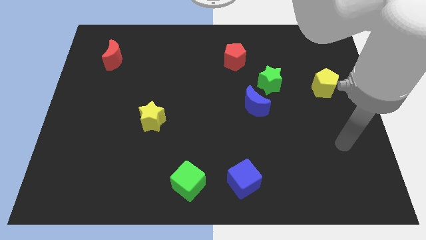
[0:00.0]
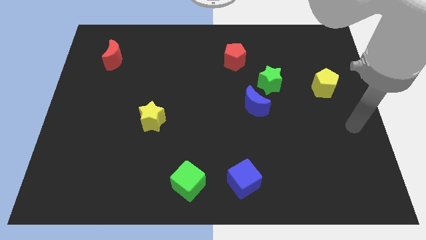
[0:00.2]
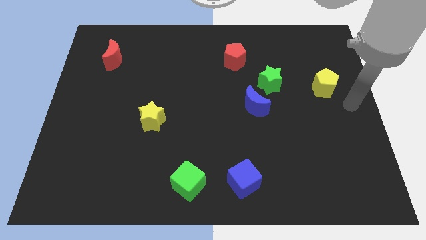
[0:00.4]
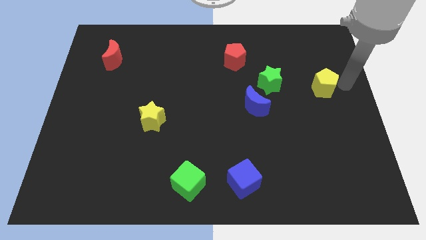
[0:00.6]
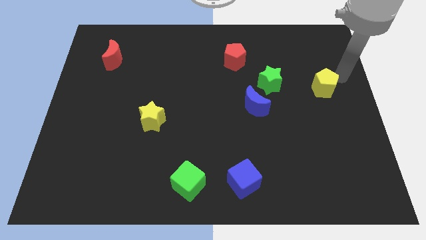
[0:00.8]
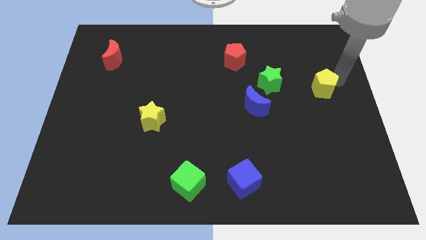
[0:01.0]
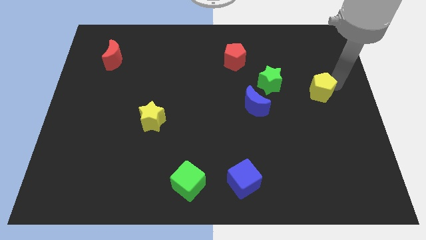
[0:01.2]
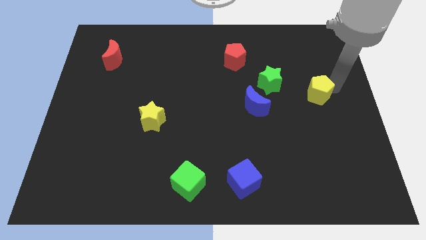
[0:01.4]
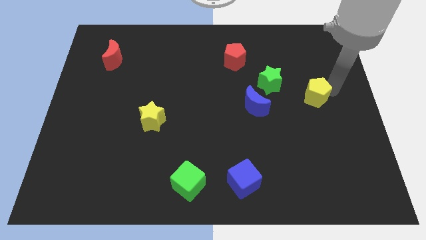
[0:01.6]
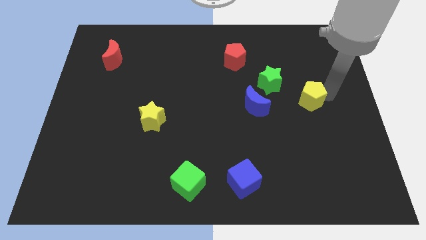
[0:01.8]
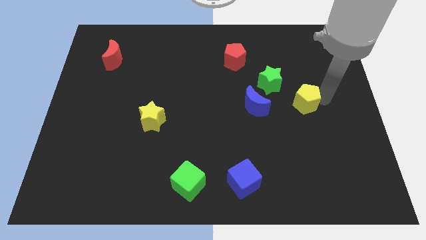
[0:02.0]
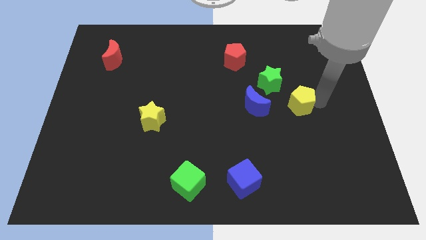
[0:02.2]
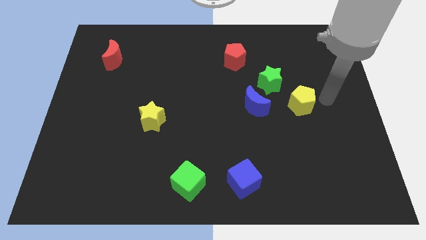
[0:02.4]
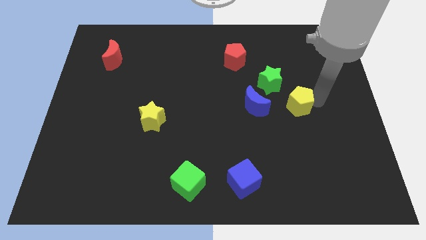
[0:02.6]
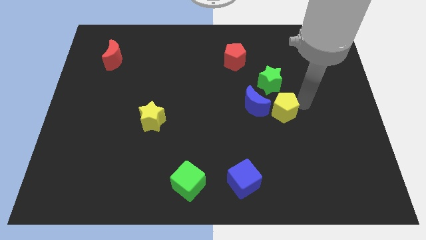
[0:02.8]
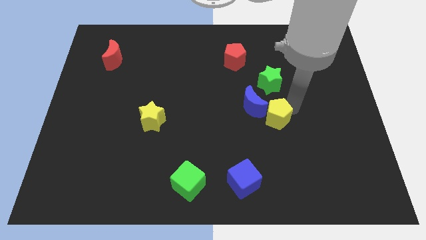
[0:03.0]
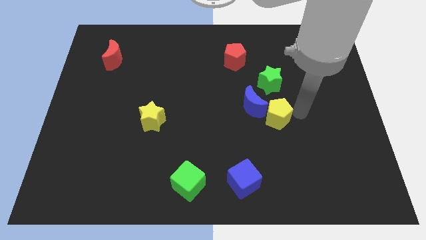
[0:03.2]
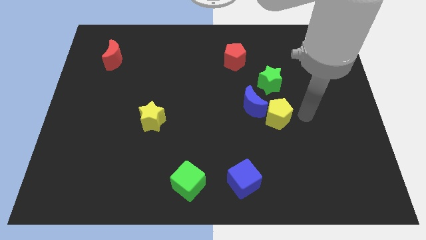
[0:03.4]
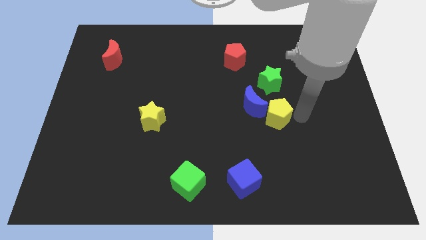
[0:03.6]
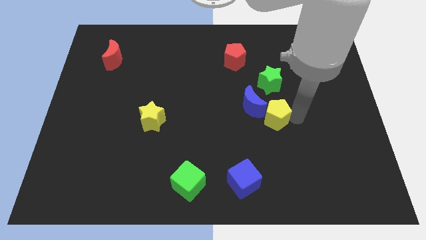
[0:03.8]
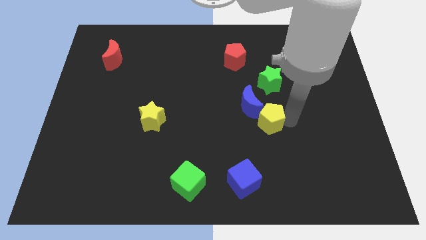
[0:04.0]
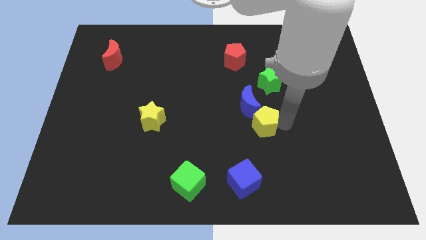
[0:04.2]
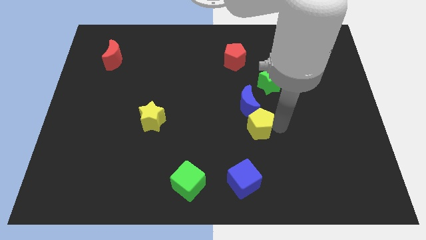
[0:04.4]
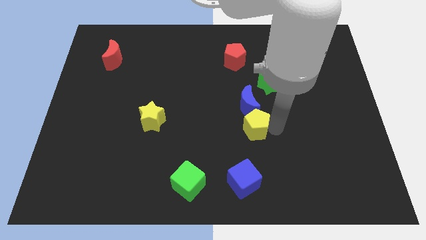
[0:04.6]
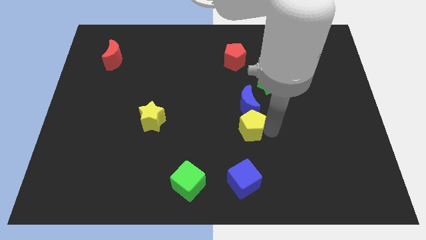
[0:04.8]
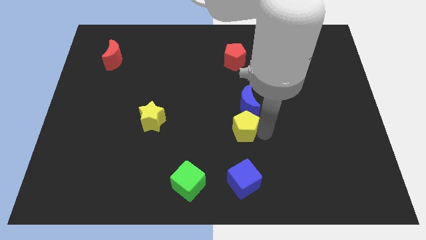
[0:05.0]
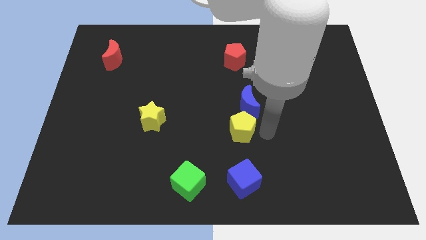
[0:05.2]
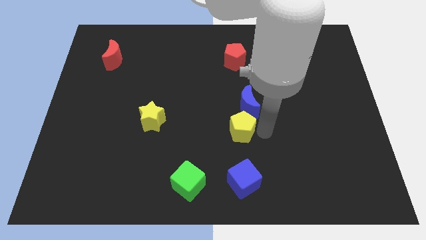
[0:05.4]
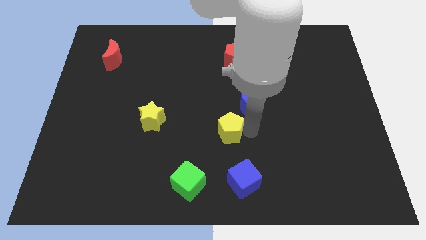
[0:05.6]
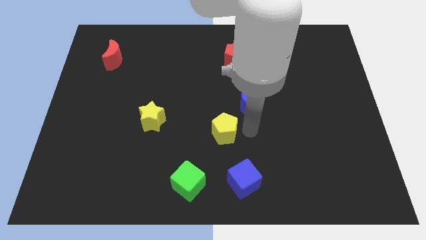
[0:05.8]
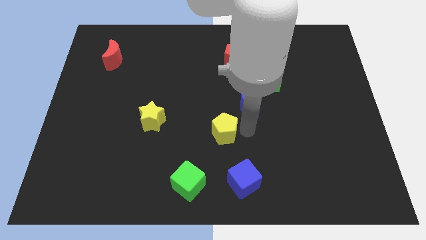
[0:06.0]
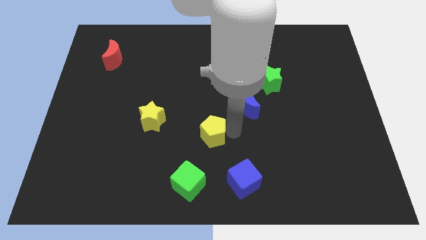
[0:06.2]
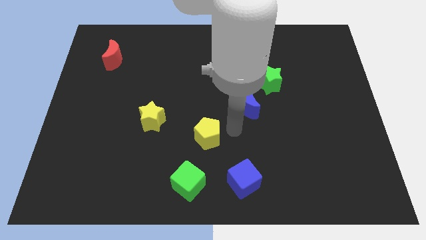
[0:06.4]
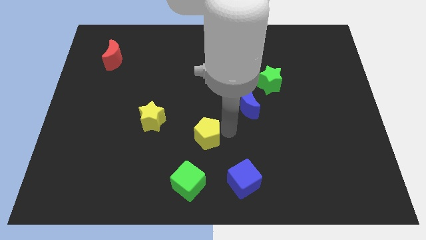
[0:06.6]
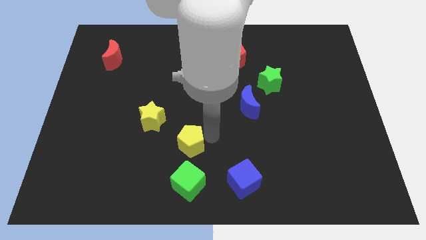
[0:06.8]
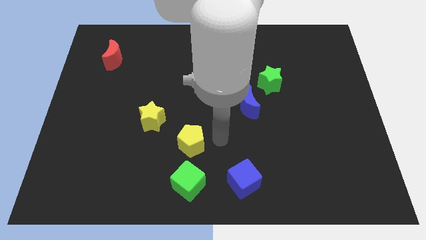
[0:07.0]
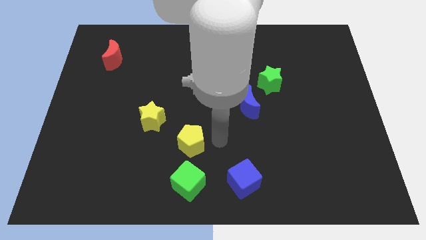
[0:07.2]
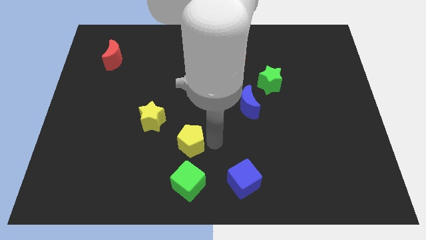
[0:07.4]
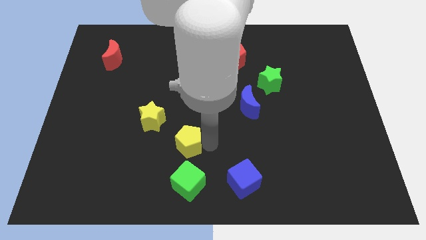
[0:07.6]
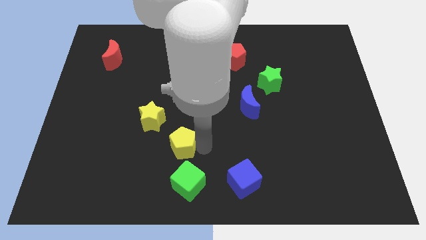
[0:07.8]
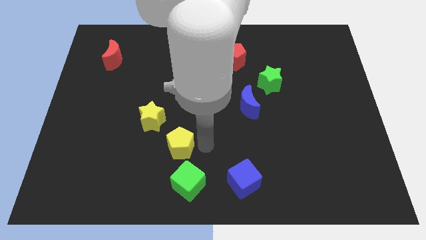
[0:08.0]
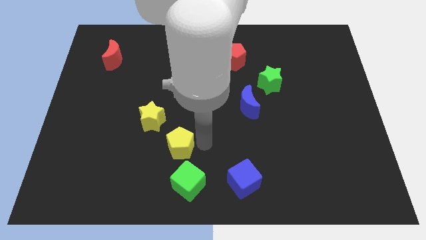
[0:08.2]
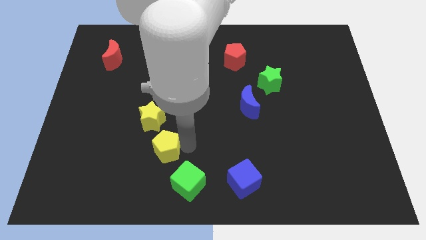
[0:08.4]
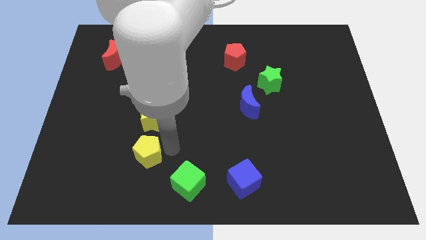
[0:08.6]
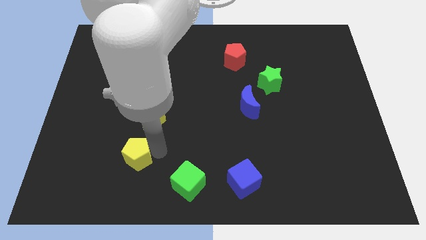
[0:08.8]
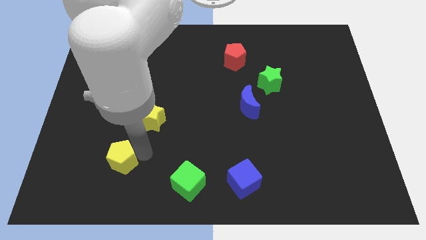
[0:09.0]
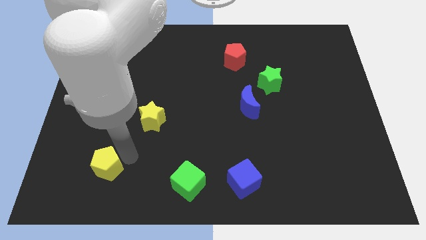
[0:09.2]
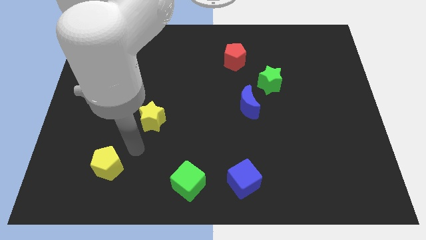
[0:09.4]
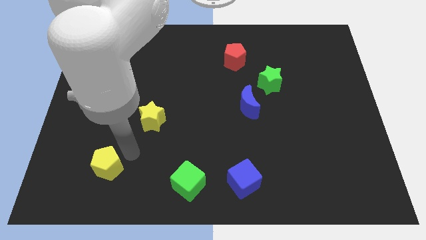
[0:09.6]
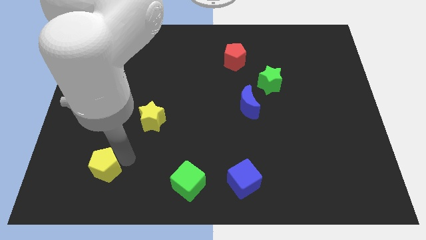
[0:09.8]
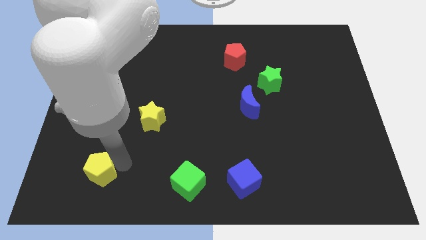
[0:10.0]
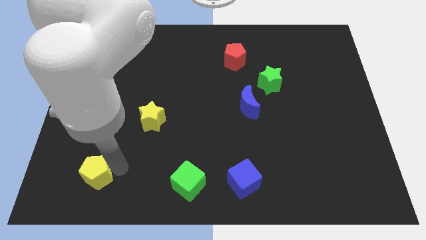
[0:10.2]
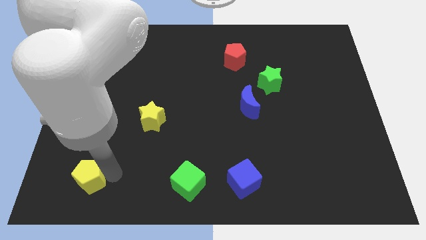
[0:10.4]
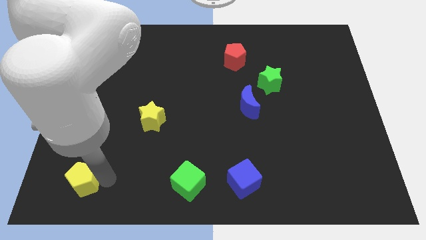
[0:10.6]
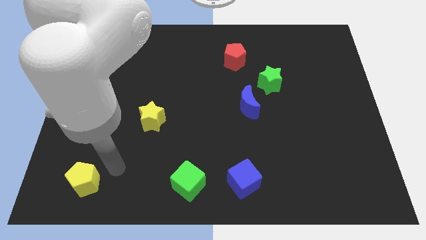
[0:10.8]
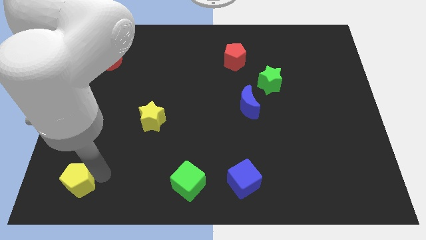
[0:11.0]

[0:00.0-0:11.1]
move the yellow pentagon to the bottom left

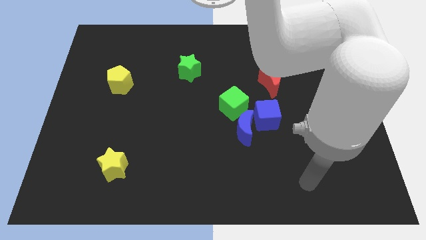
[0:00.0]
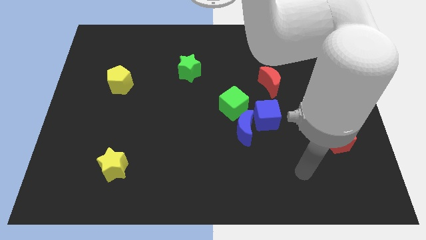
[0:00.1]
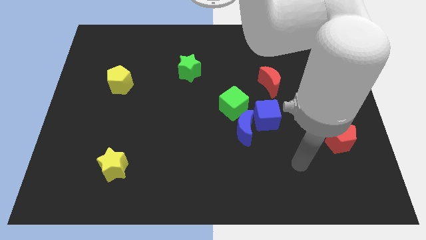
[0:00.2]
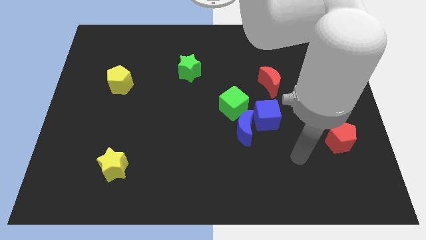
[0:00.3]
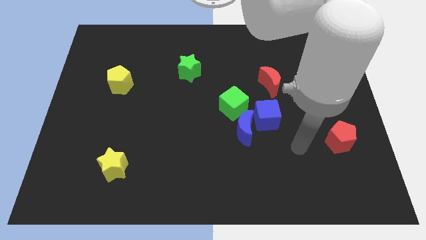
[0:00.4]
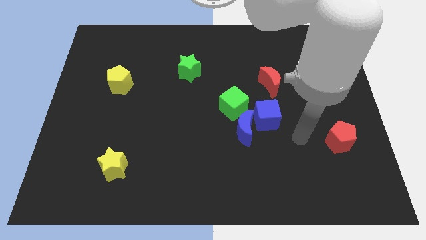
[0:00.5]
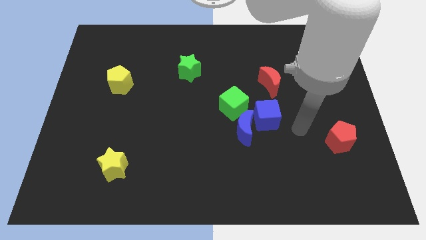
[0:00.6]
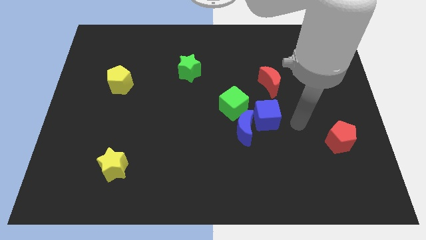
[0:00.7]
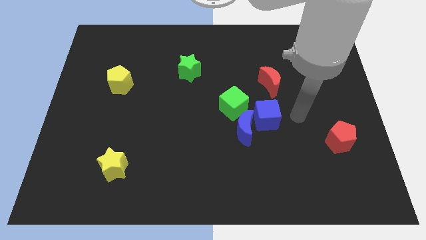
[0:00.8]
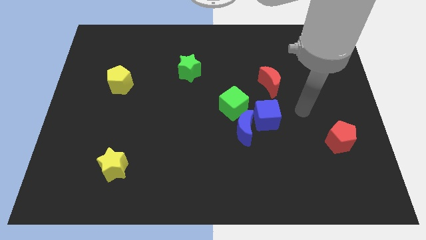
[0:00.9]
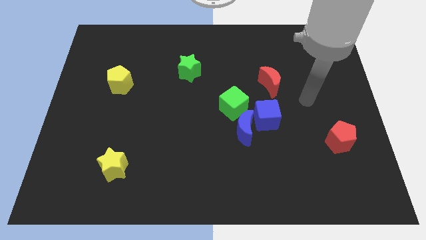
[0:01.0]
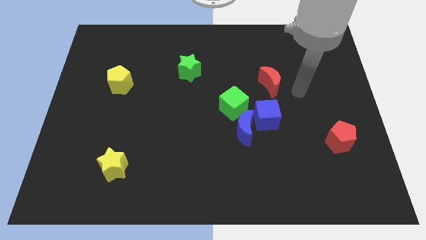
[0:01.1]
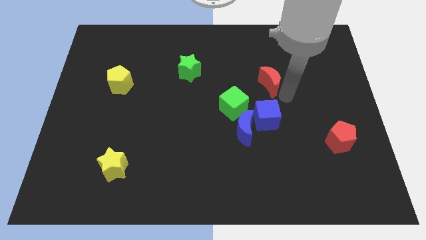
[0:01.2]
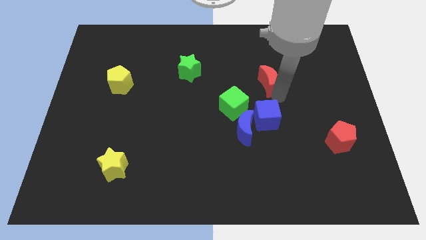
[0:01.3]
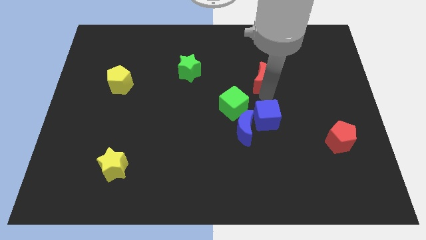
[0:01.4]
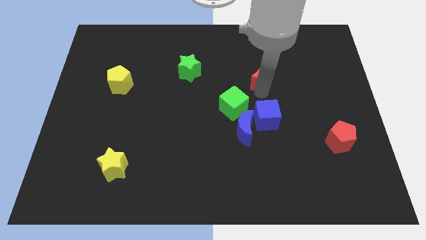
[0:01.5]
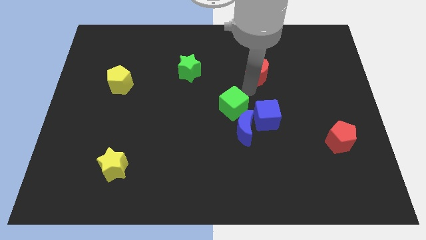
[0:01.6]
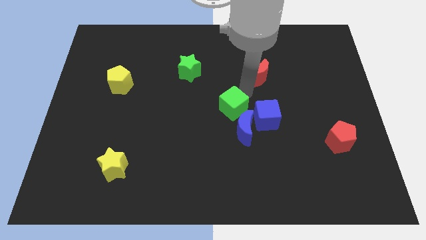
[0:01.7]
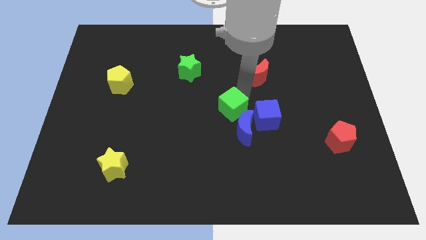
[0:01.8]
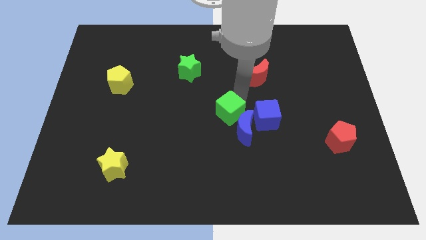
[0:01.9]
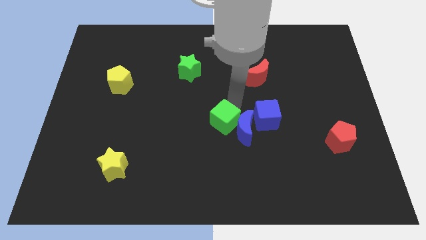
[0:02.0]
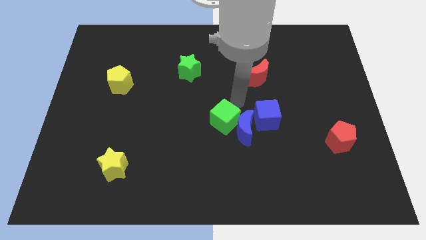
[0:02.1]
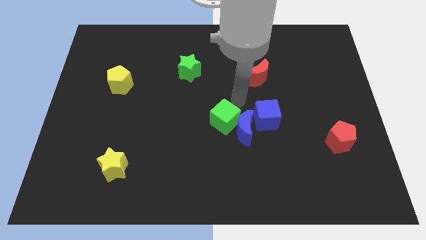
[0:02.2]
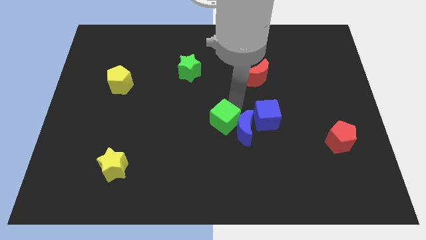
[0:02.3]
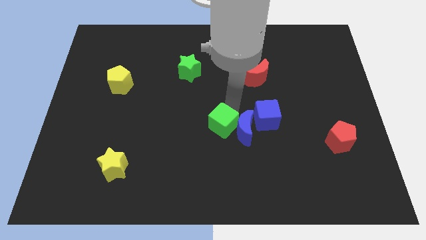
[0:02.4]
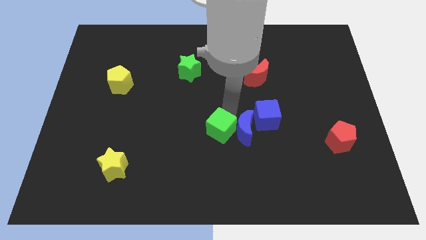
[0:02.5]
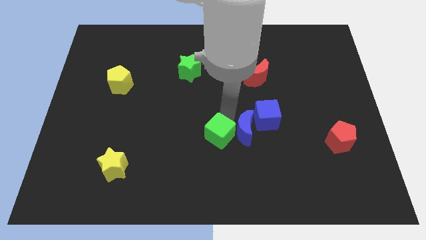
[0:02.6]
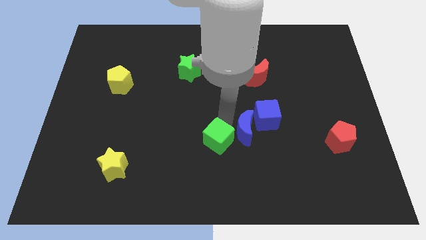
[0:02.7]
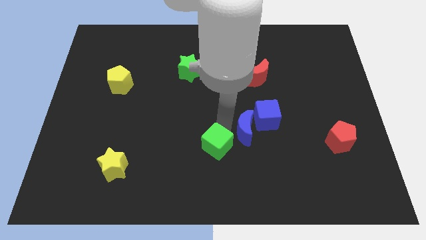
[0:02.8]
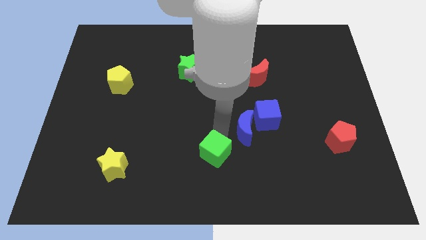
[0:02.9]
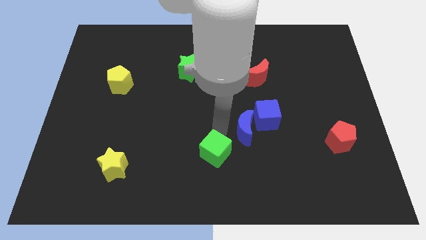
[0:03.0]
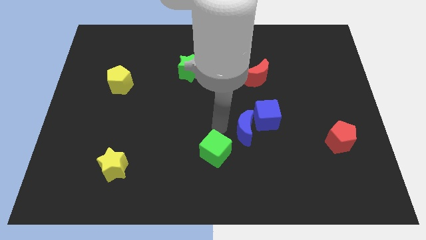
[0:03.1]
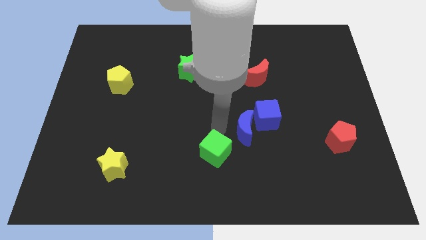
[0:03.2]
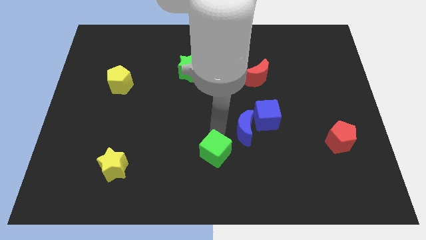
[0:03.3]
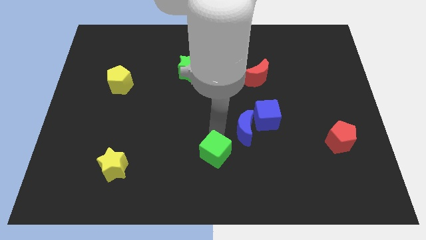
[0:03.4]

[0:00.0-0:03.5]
put the green cube to the bottom side
